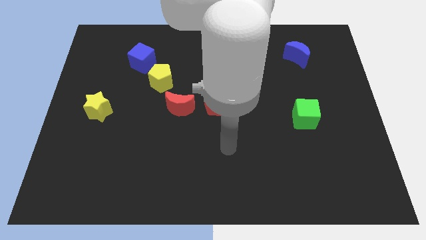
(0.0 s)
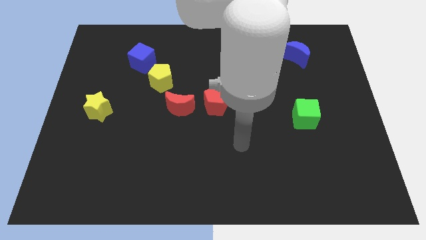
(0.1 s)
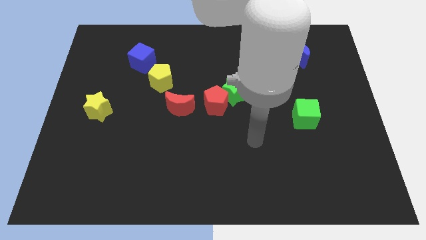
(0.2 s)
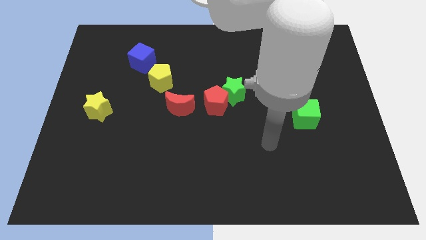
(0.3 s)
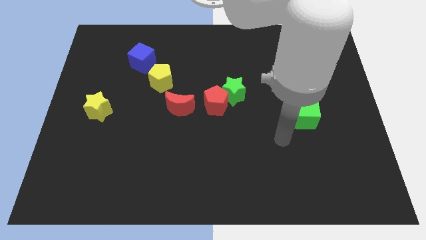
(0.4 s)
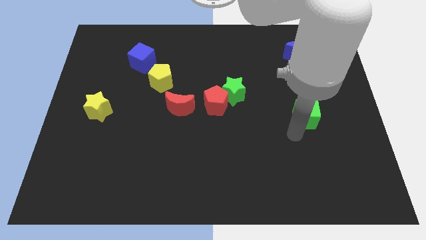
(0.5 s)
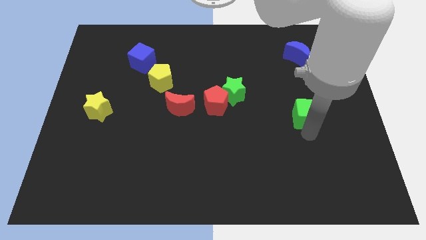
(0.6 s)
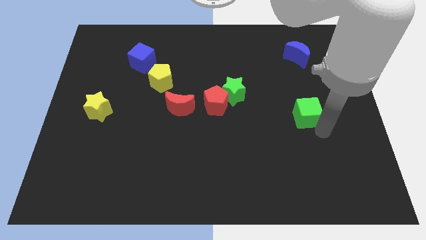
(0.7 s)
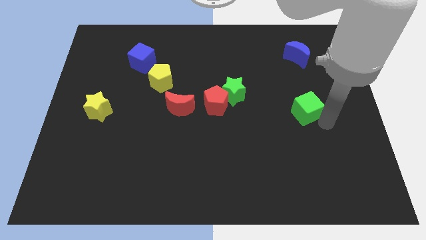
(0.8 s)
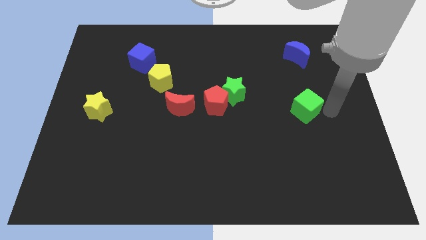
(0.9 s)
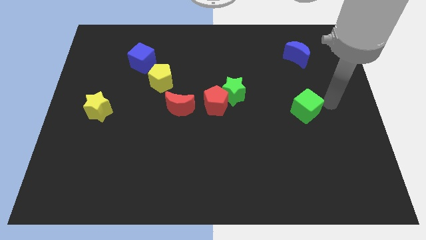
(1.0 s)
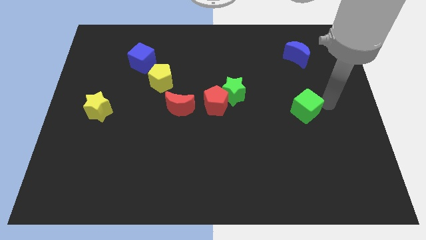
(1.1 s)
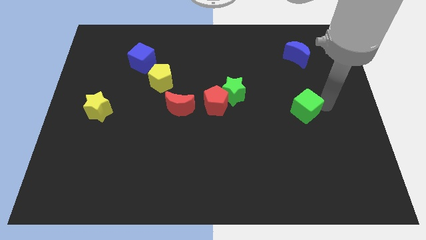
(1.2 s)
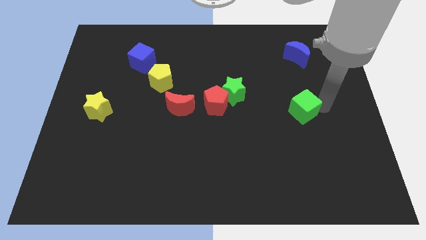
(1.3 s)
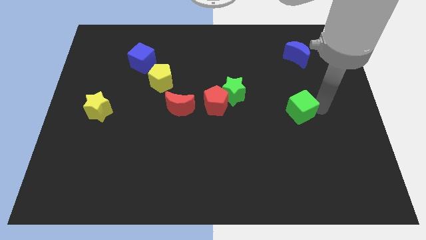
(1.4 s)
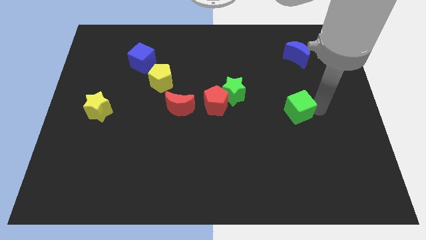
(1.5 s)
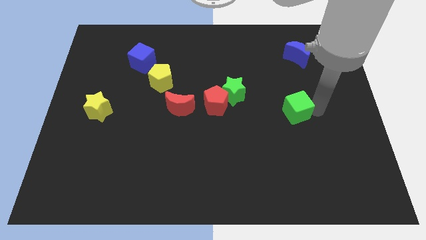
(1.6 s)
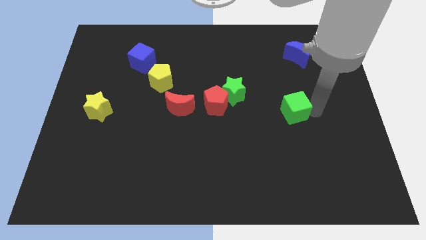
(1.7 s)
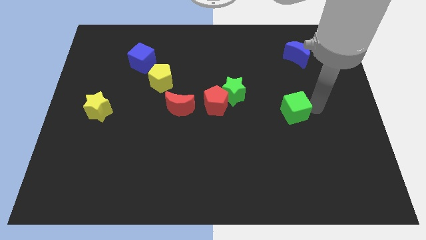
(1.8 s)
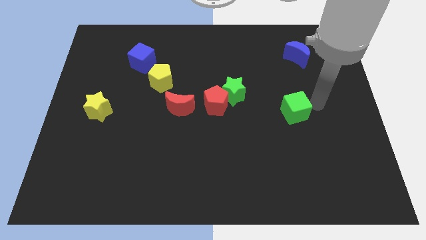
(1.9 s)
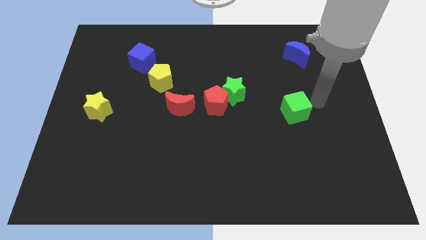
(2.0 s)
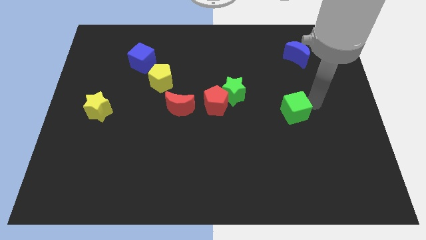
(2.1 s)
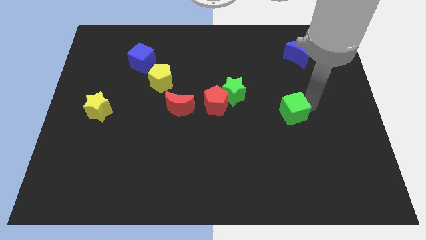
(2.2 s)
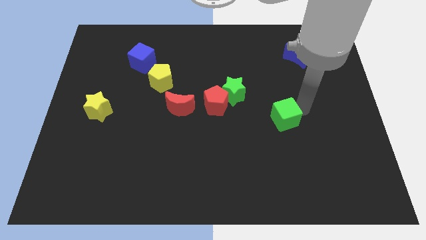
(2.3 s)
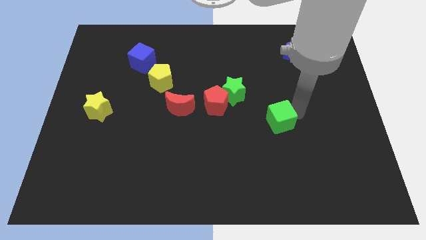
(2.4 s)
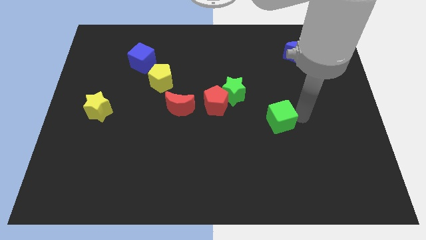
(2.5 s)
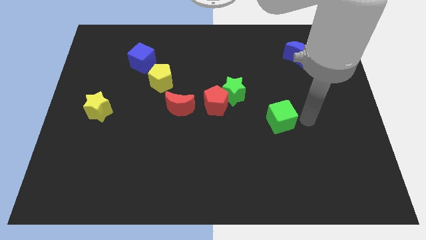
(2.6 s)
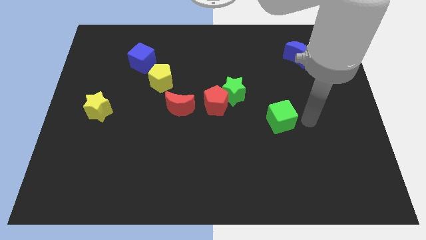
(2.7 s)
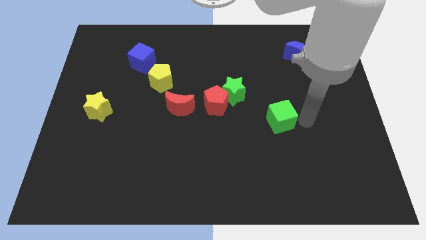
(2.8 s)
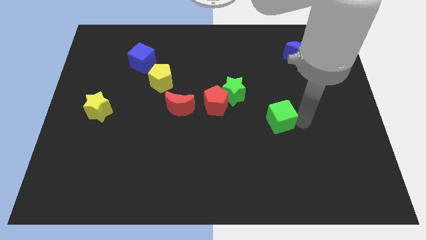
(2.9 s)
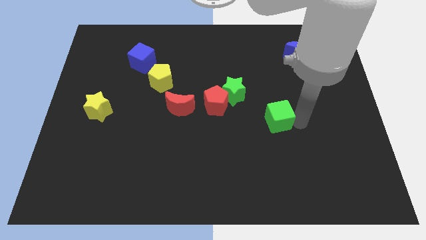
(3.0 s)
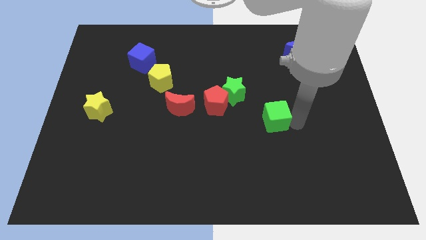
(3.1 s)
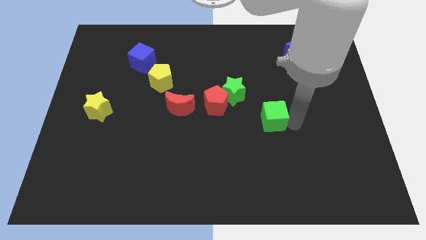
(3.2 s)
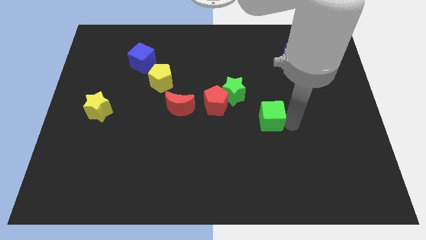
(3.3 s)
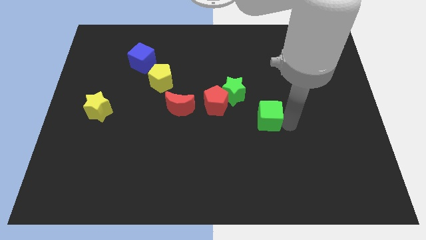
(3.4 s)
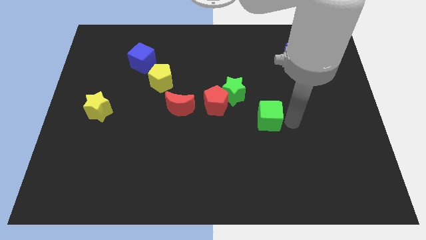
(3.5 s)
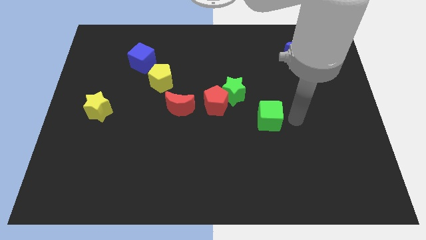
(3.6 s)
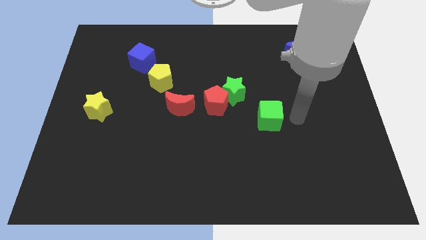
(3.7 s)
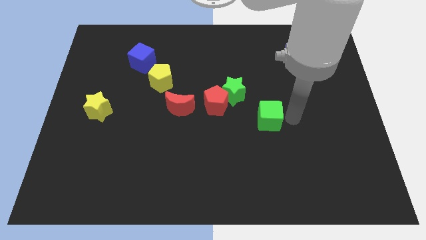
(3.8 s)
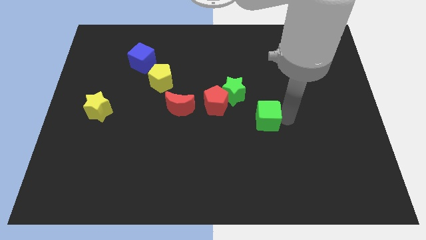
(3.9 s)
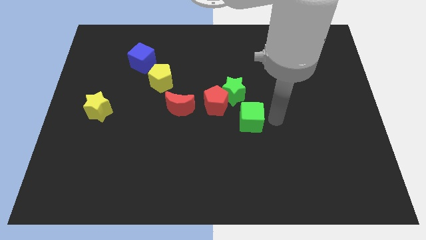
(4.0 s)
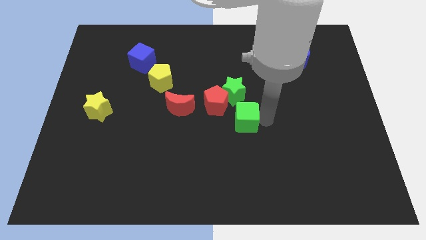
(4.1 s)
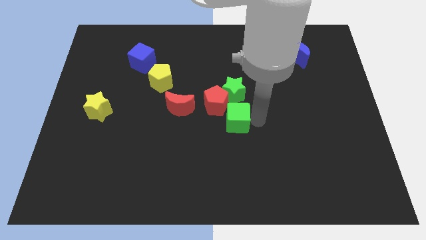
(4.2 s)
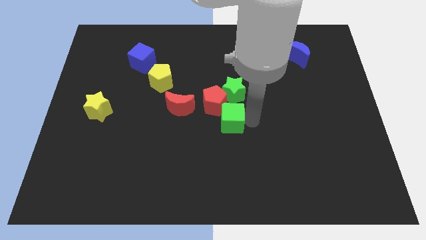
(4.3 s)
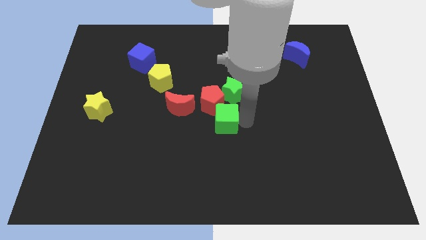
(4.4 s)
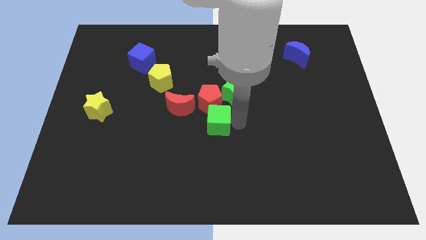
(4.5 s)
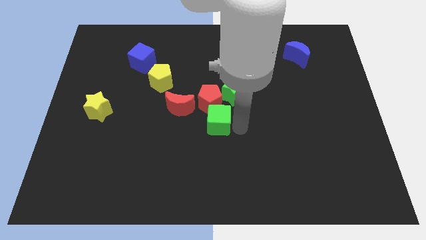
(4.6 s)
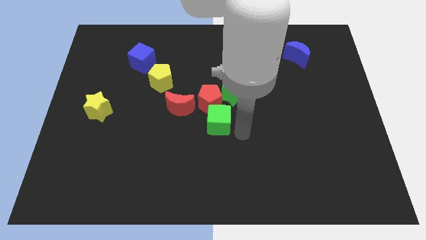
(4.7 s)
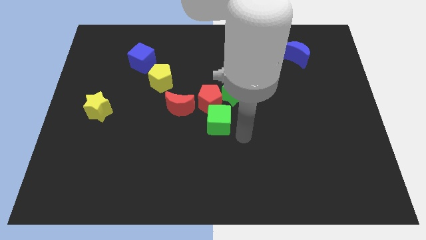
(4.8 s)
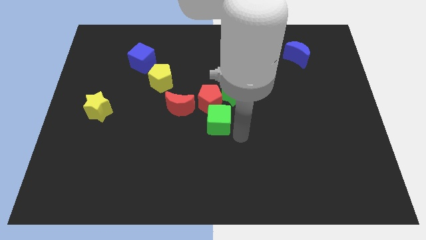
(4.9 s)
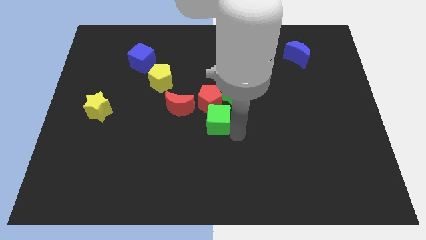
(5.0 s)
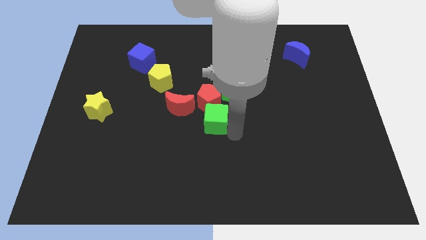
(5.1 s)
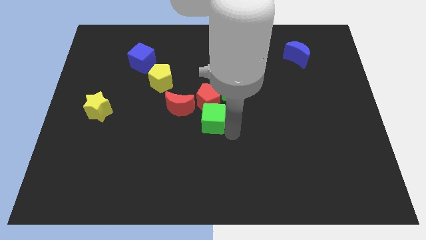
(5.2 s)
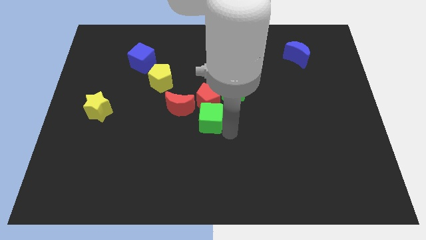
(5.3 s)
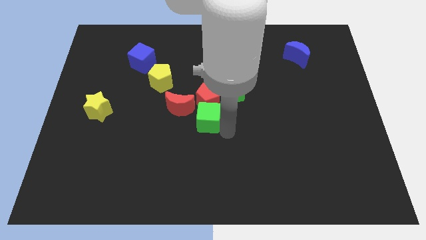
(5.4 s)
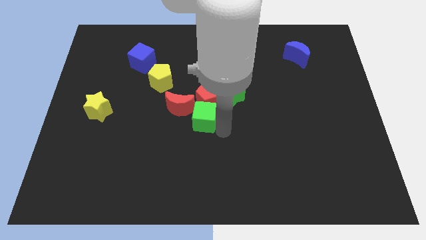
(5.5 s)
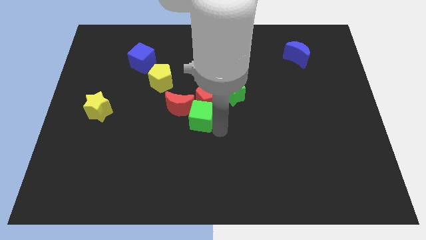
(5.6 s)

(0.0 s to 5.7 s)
push the green cube next to the red moon

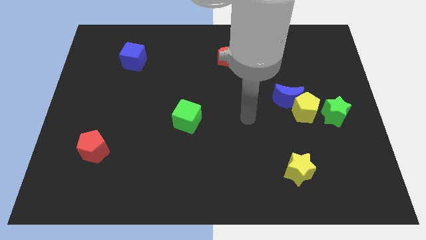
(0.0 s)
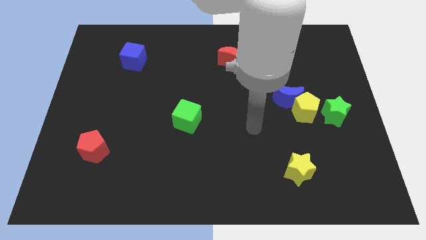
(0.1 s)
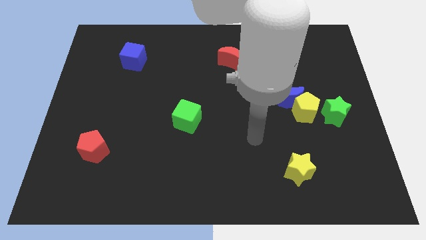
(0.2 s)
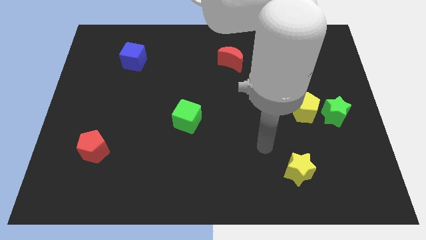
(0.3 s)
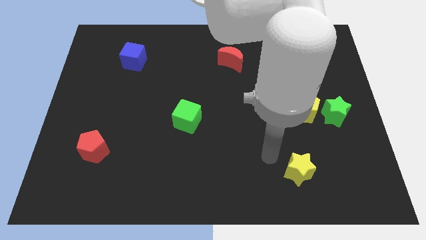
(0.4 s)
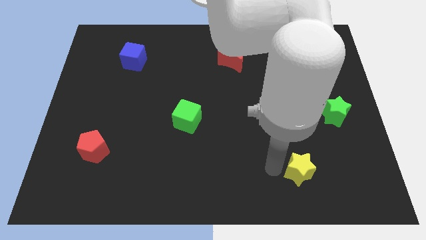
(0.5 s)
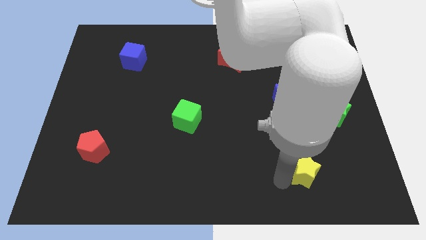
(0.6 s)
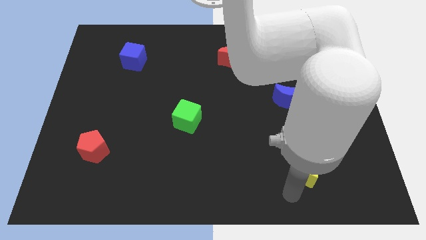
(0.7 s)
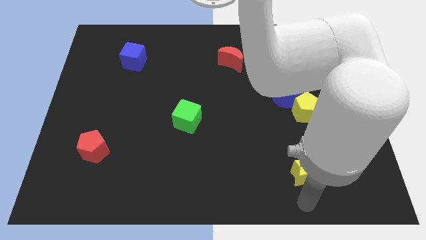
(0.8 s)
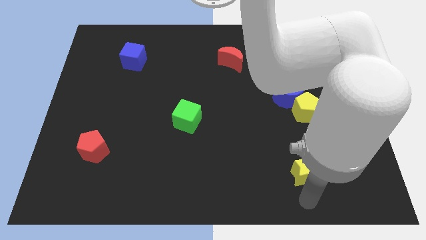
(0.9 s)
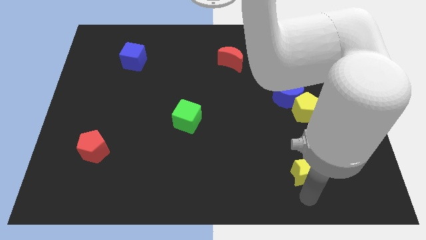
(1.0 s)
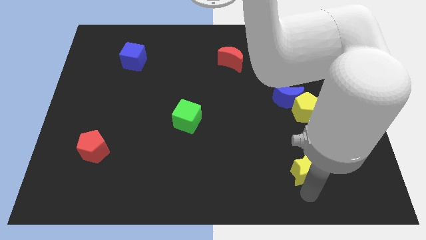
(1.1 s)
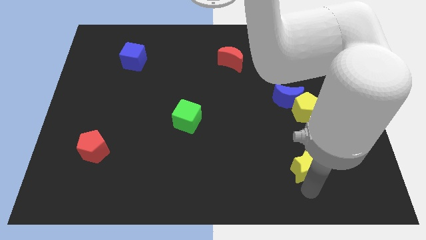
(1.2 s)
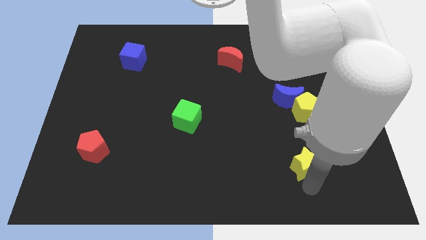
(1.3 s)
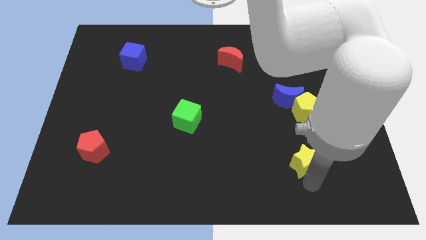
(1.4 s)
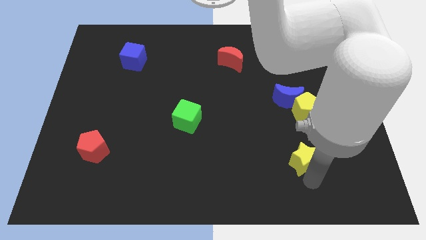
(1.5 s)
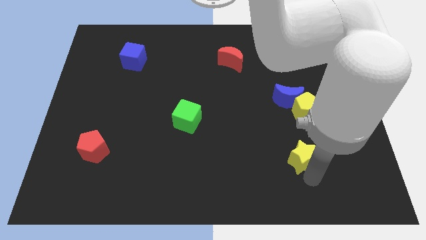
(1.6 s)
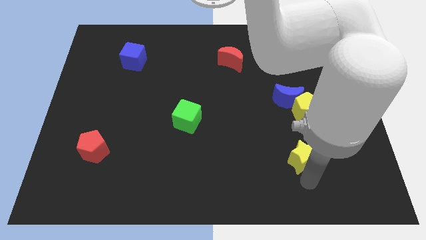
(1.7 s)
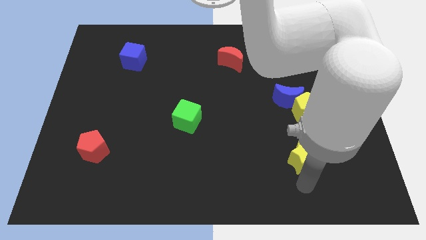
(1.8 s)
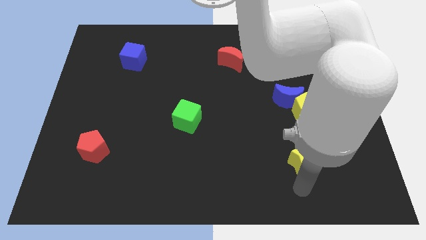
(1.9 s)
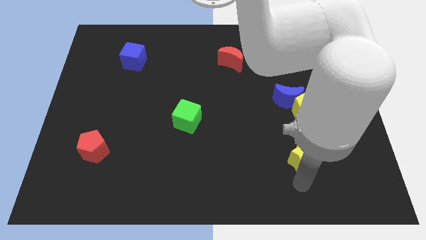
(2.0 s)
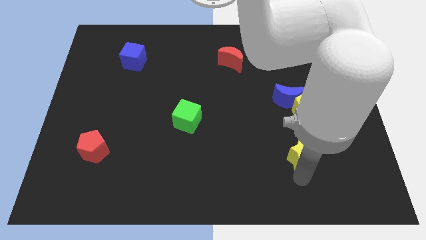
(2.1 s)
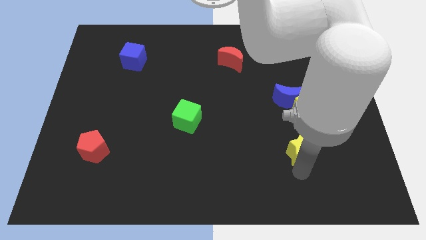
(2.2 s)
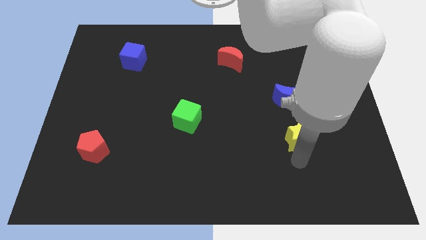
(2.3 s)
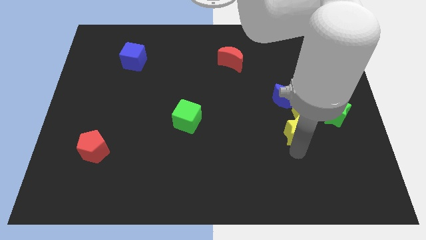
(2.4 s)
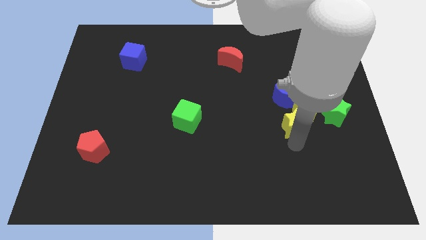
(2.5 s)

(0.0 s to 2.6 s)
push the yellow star towards the yellow pentagon
